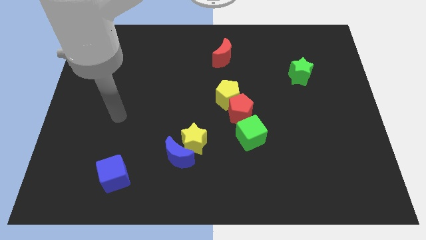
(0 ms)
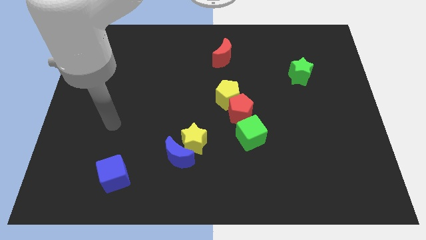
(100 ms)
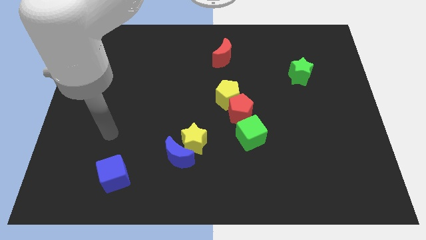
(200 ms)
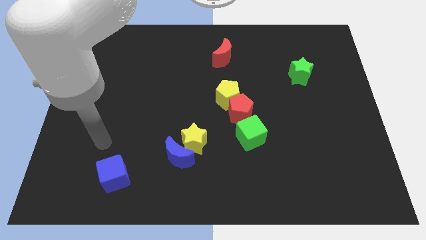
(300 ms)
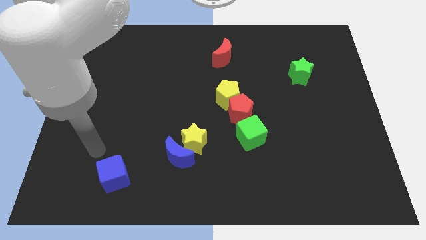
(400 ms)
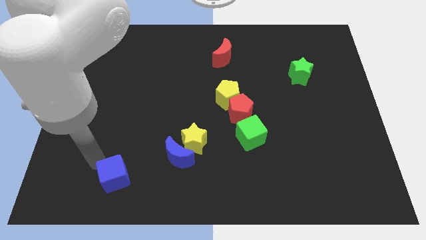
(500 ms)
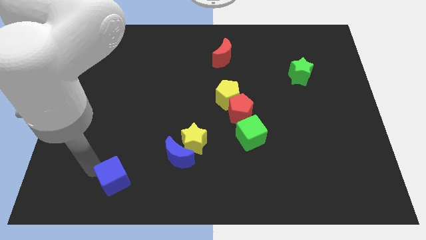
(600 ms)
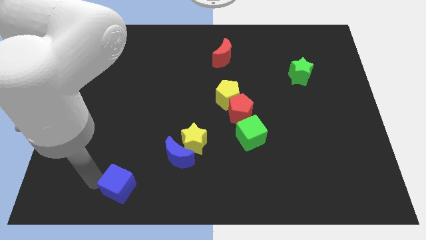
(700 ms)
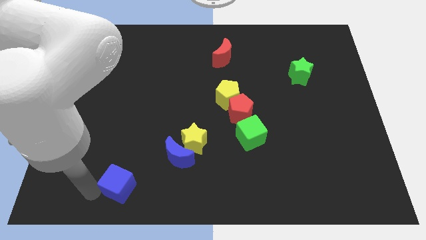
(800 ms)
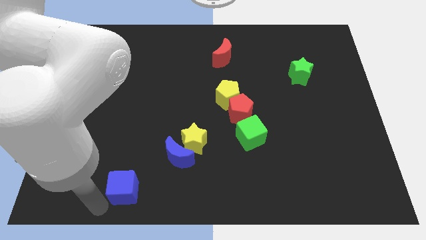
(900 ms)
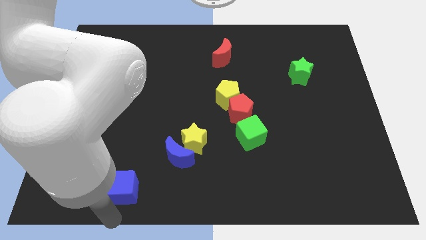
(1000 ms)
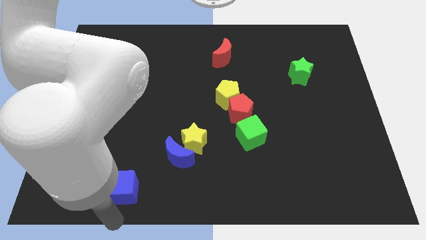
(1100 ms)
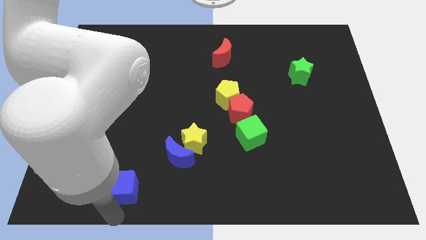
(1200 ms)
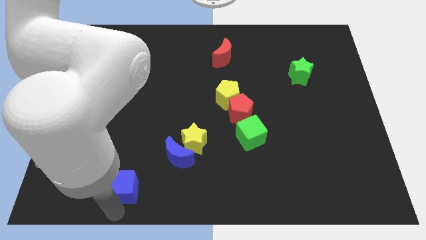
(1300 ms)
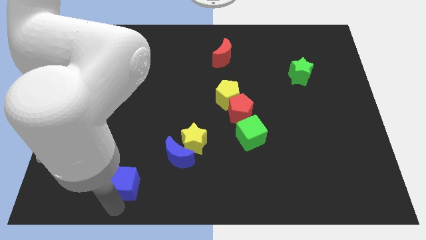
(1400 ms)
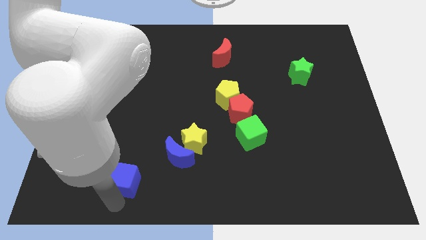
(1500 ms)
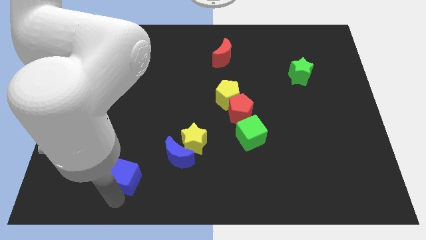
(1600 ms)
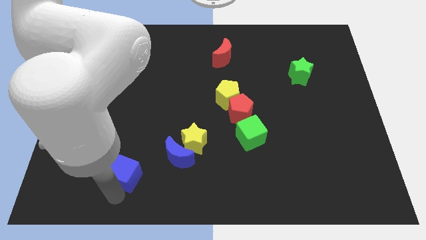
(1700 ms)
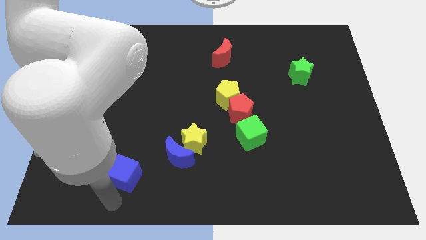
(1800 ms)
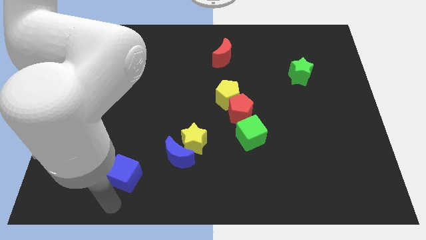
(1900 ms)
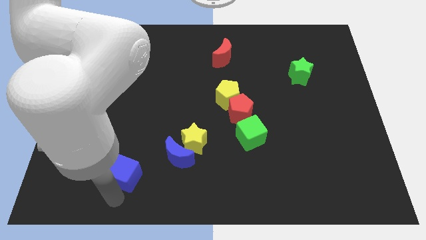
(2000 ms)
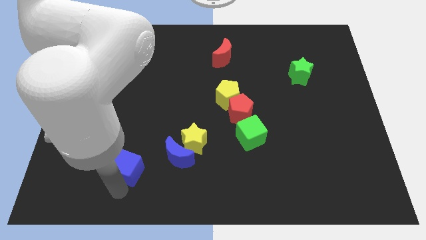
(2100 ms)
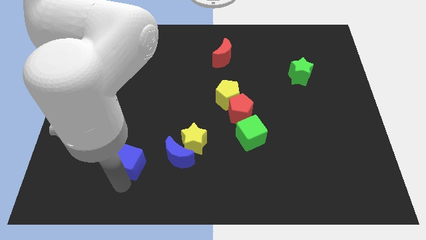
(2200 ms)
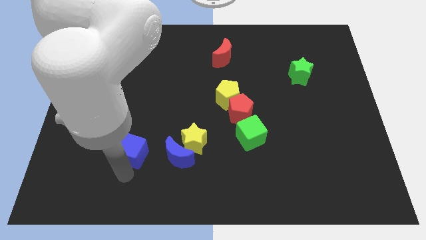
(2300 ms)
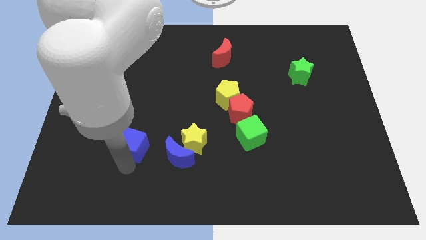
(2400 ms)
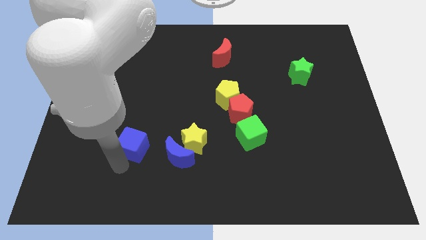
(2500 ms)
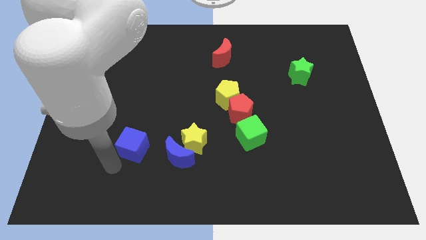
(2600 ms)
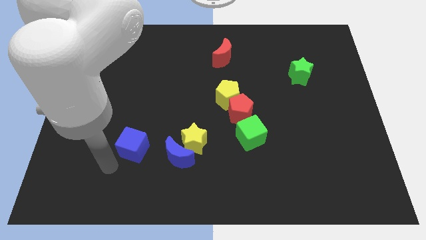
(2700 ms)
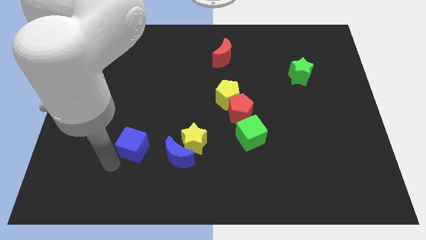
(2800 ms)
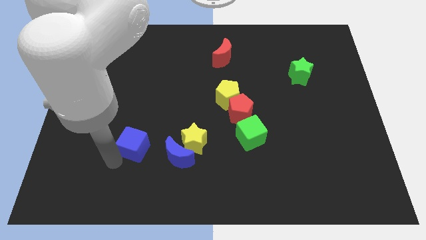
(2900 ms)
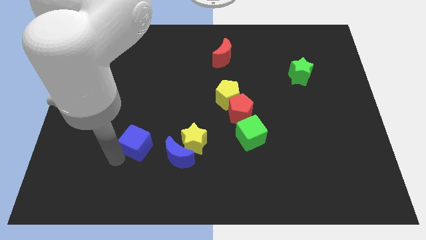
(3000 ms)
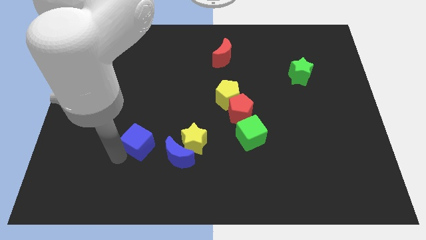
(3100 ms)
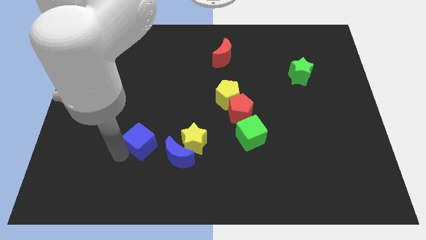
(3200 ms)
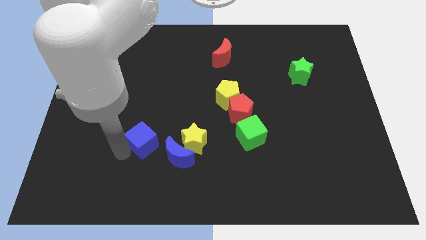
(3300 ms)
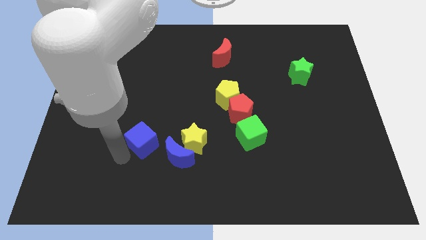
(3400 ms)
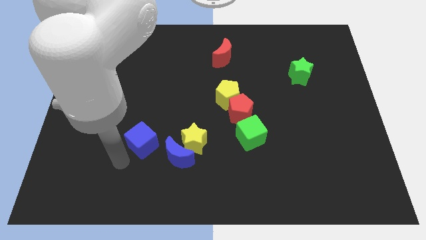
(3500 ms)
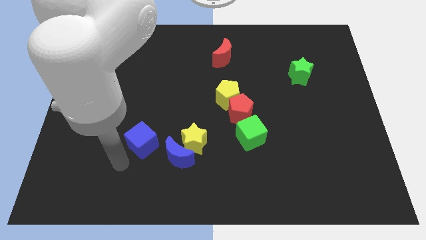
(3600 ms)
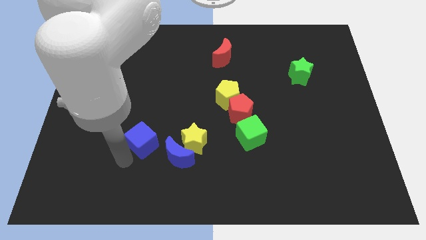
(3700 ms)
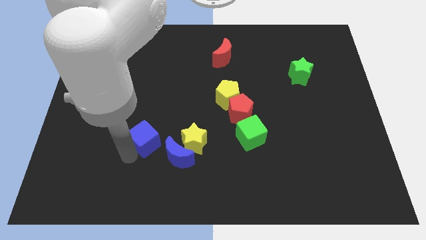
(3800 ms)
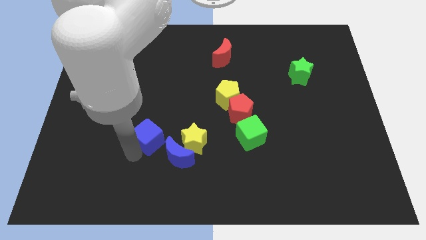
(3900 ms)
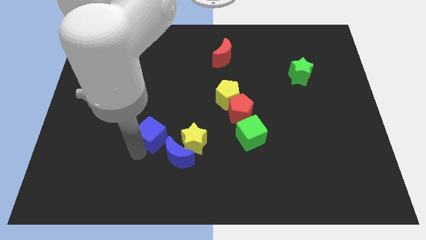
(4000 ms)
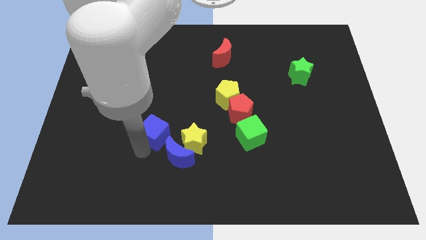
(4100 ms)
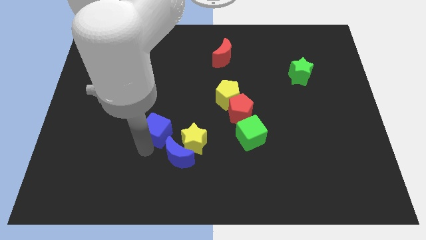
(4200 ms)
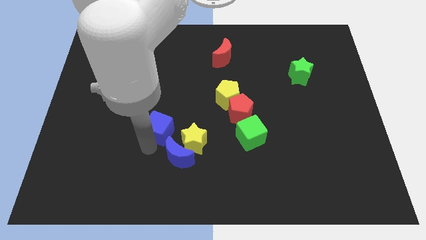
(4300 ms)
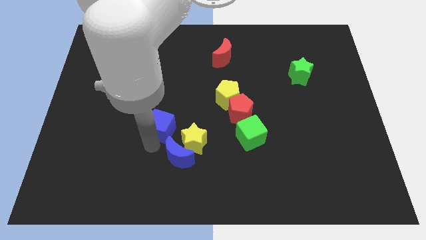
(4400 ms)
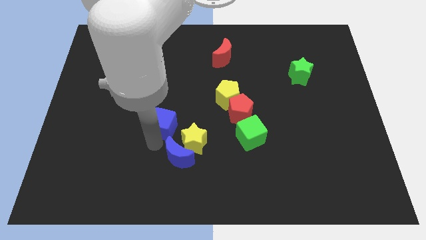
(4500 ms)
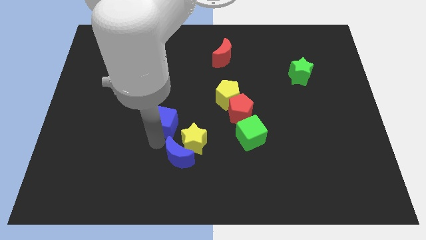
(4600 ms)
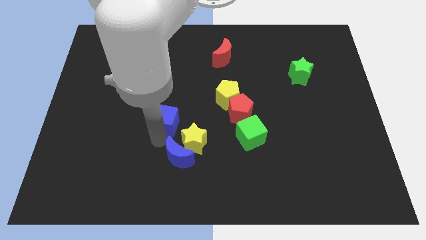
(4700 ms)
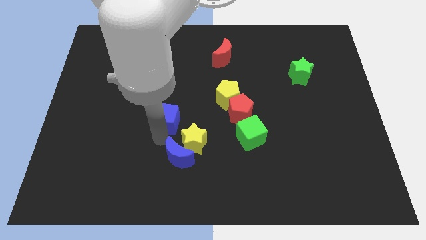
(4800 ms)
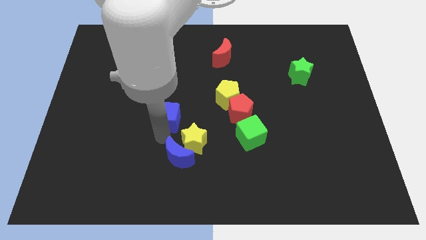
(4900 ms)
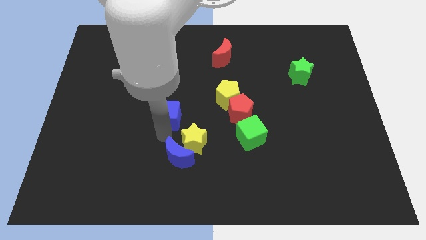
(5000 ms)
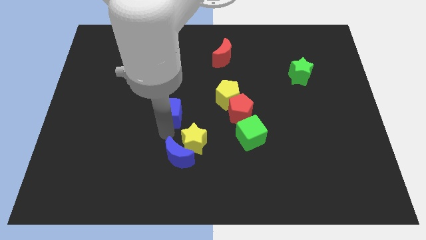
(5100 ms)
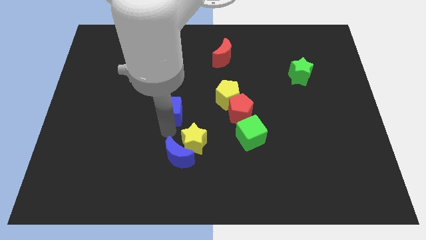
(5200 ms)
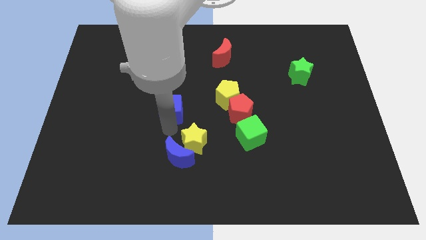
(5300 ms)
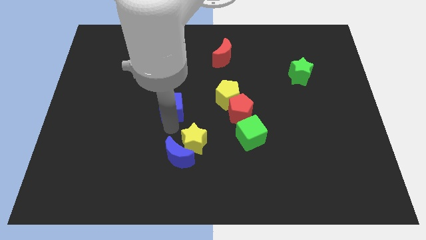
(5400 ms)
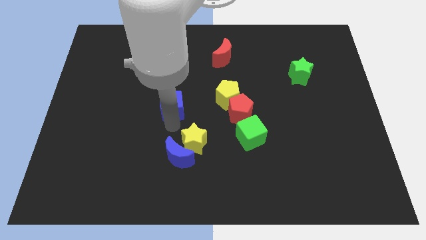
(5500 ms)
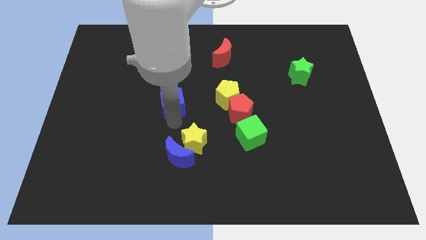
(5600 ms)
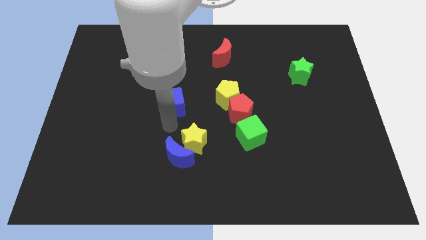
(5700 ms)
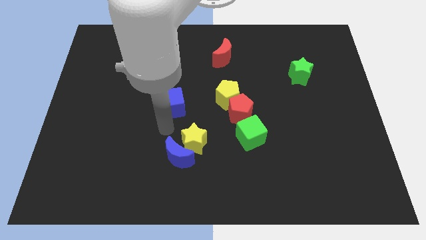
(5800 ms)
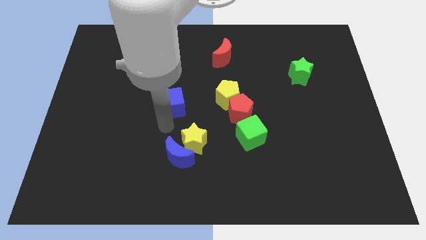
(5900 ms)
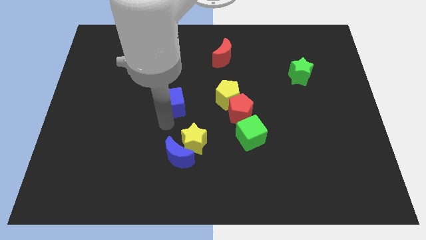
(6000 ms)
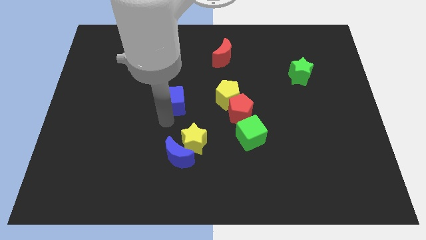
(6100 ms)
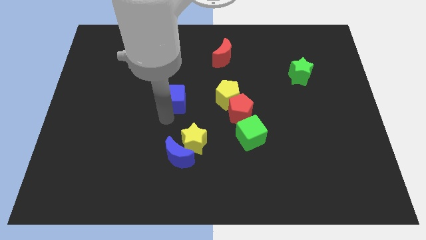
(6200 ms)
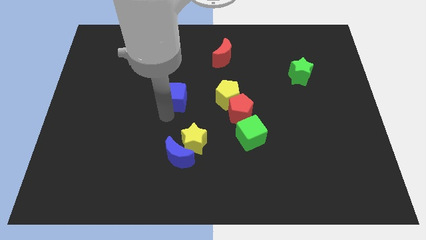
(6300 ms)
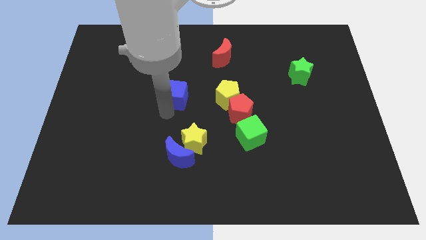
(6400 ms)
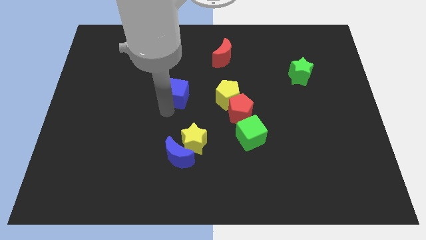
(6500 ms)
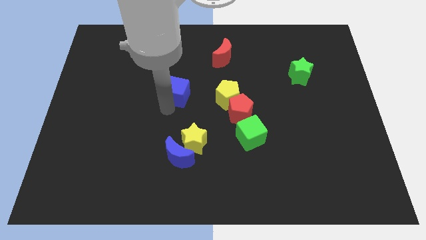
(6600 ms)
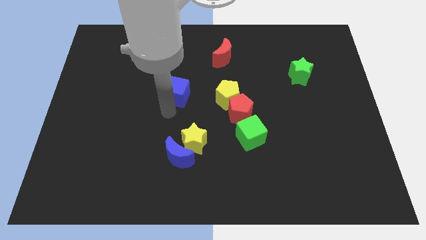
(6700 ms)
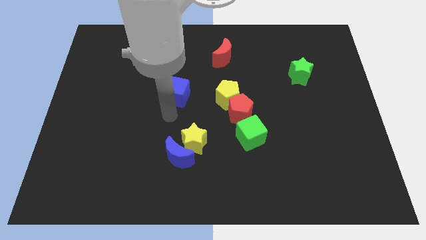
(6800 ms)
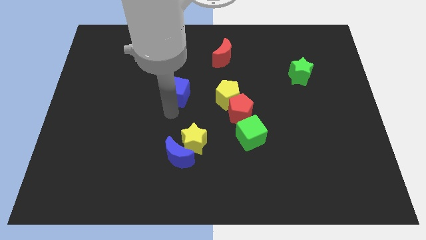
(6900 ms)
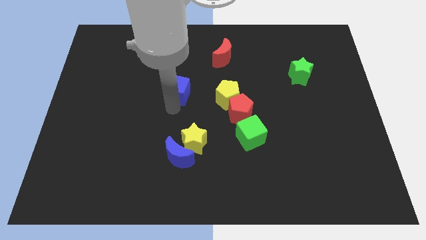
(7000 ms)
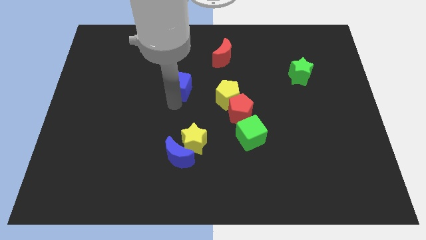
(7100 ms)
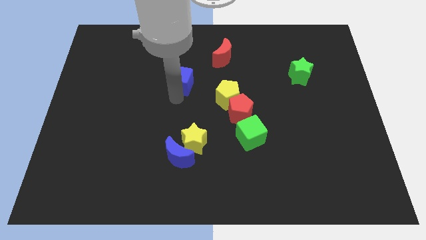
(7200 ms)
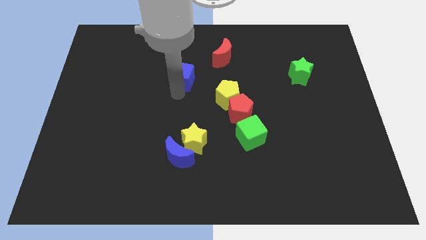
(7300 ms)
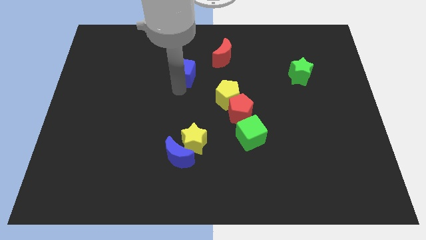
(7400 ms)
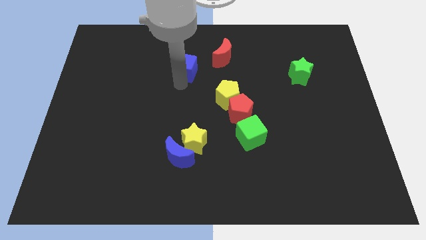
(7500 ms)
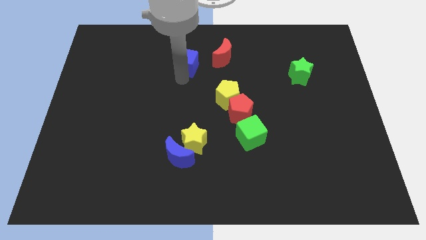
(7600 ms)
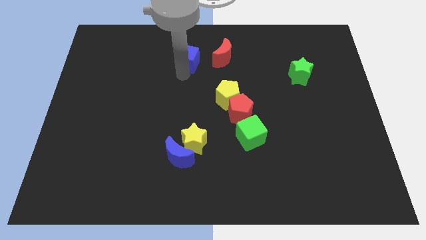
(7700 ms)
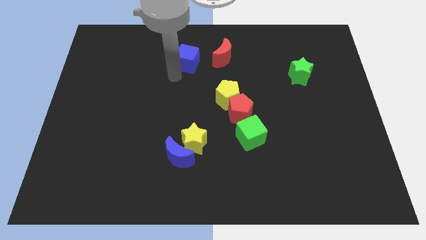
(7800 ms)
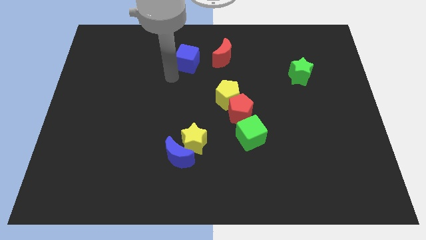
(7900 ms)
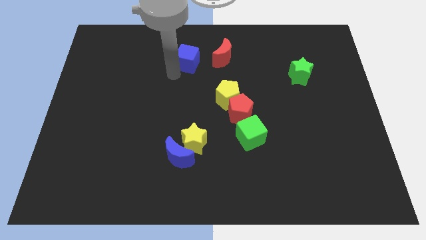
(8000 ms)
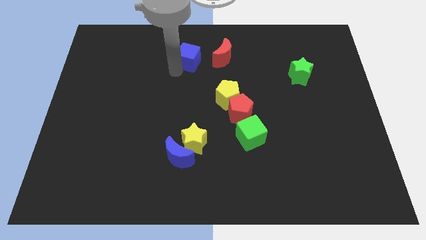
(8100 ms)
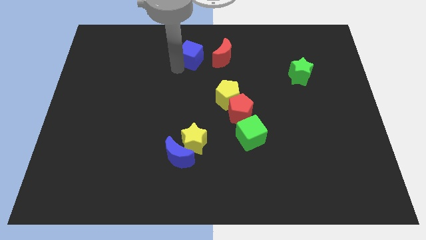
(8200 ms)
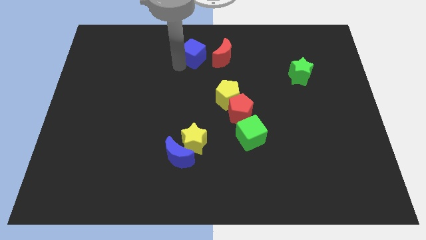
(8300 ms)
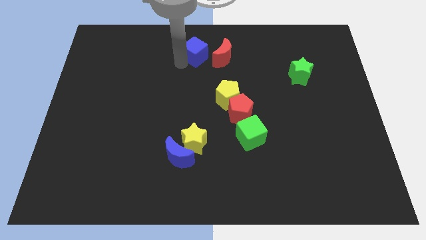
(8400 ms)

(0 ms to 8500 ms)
push the blue cube to the top side
